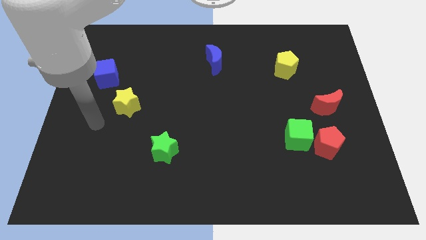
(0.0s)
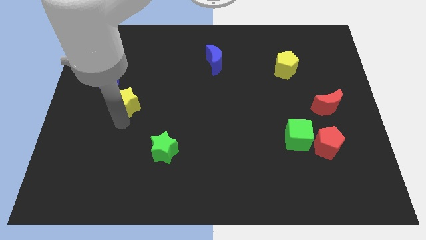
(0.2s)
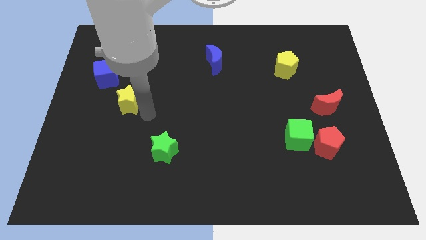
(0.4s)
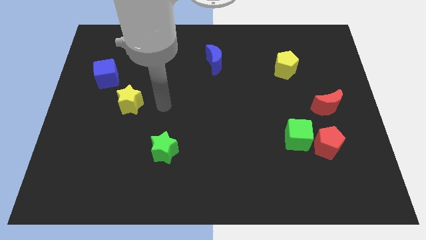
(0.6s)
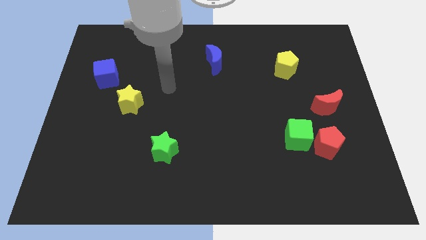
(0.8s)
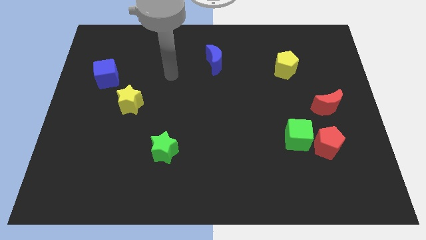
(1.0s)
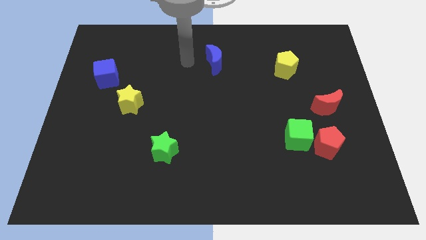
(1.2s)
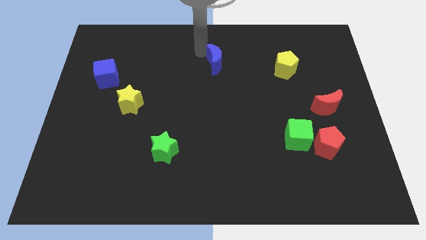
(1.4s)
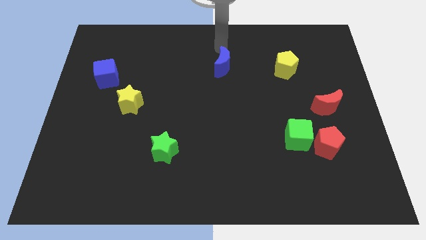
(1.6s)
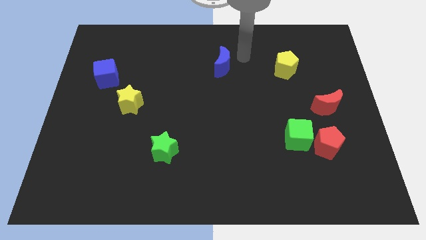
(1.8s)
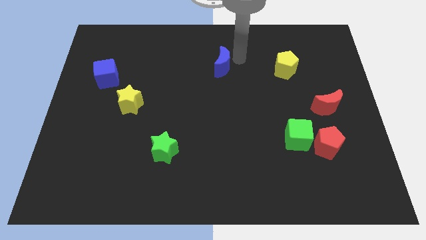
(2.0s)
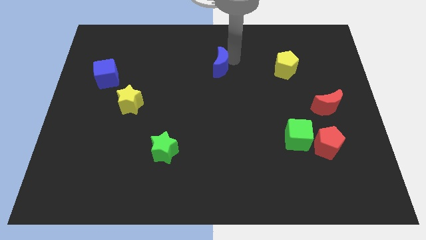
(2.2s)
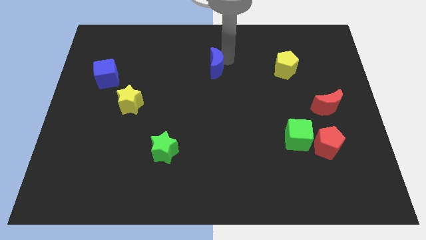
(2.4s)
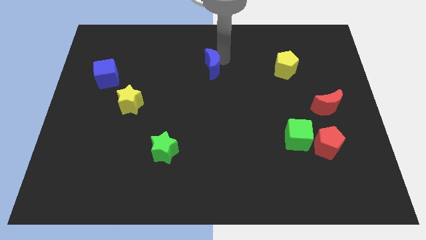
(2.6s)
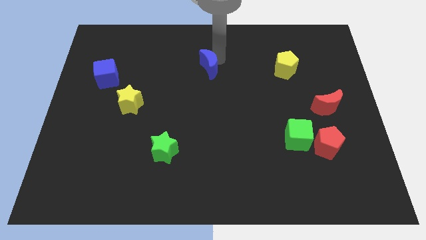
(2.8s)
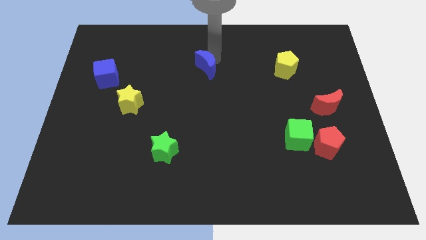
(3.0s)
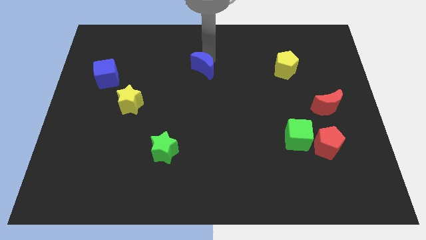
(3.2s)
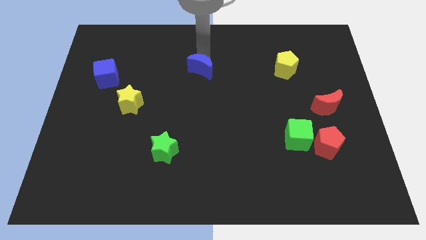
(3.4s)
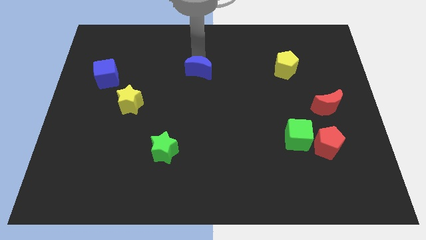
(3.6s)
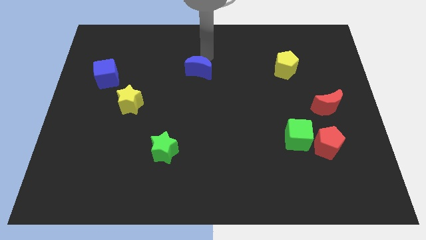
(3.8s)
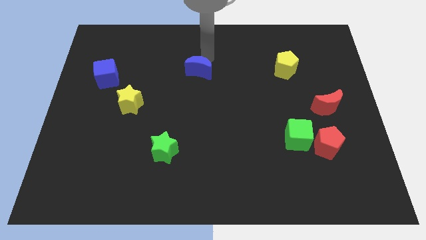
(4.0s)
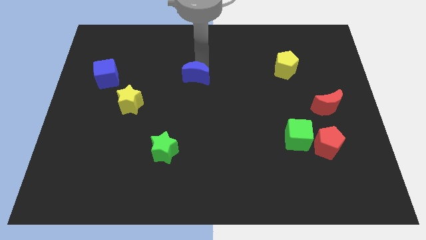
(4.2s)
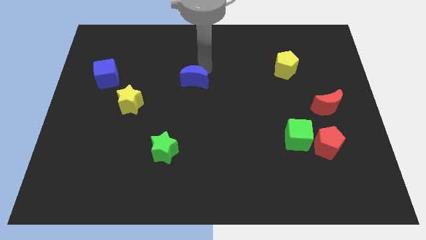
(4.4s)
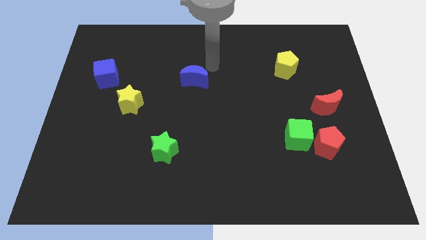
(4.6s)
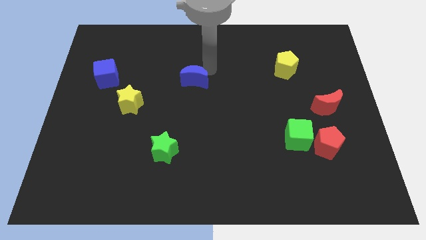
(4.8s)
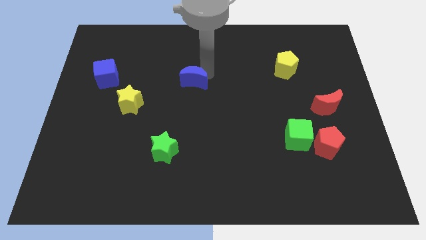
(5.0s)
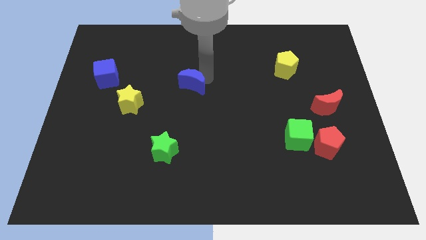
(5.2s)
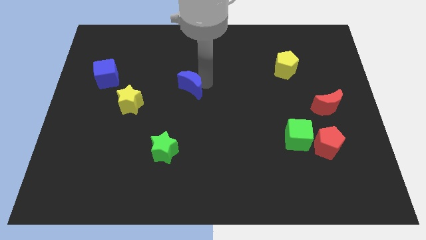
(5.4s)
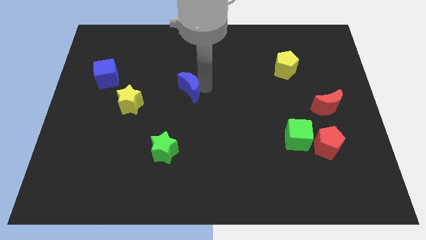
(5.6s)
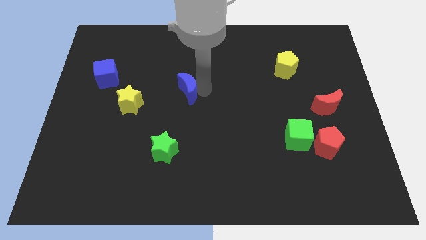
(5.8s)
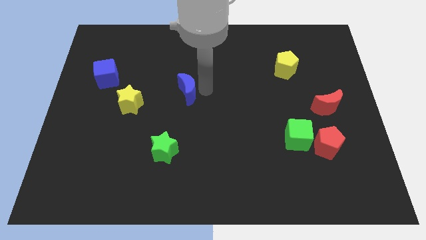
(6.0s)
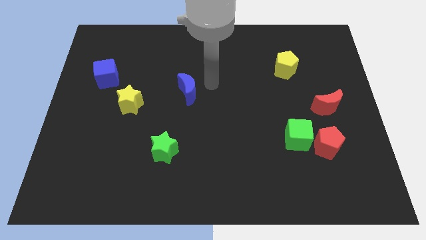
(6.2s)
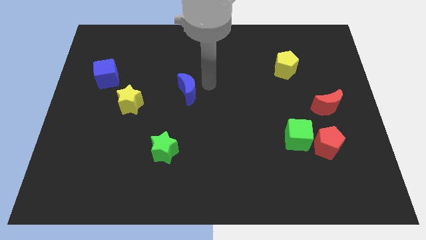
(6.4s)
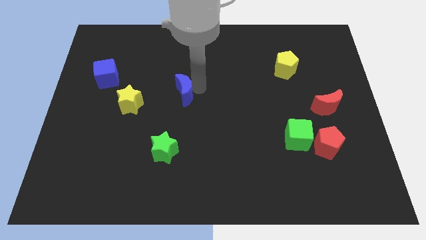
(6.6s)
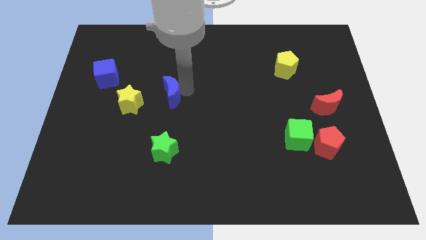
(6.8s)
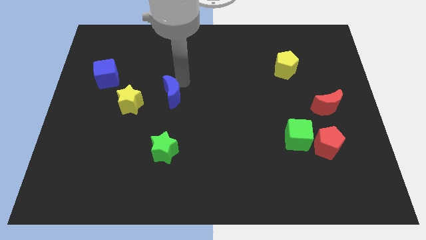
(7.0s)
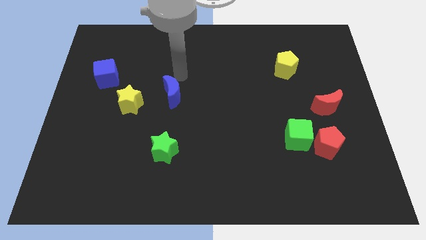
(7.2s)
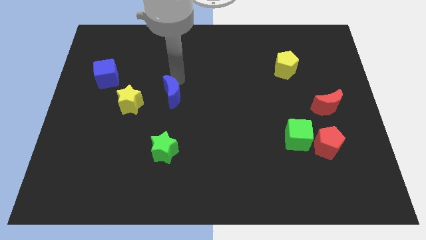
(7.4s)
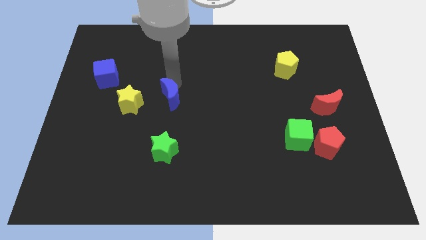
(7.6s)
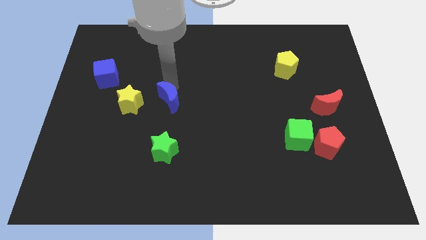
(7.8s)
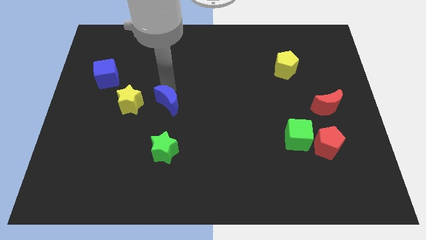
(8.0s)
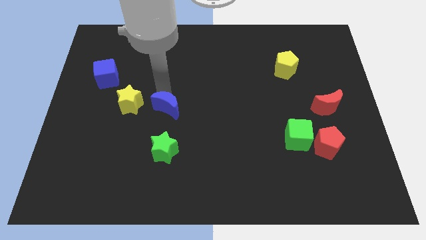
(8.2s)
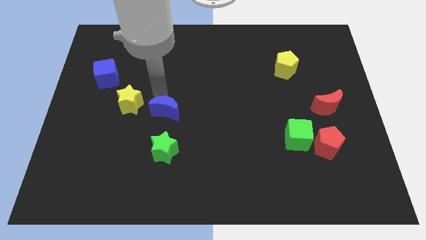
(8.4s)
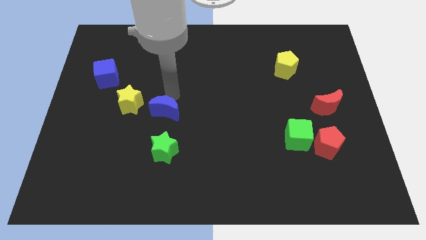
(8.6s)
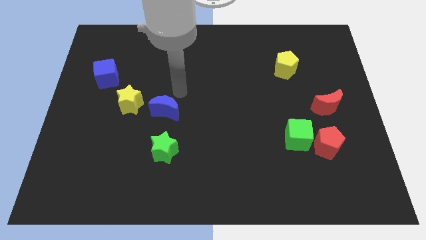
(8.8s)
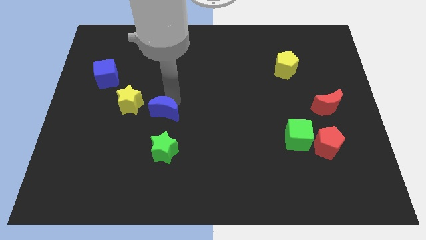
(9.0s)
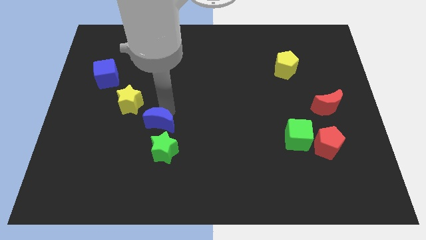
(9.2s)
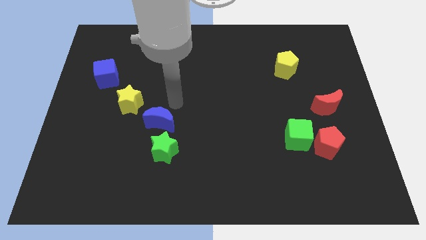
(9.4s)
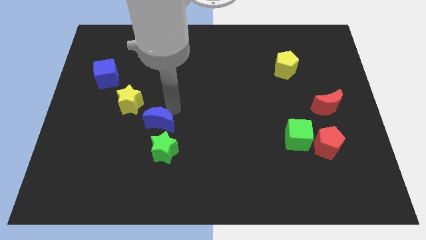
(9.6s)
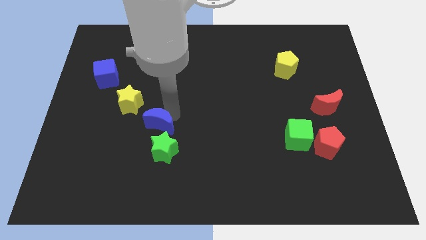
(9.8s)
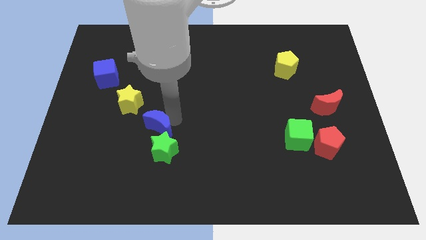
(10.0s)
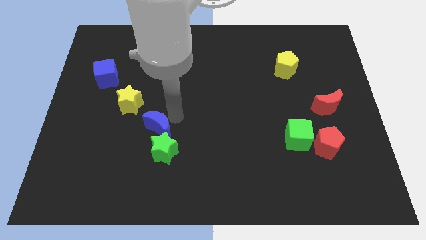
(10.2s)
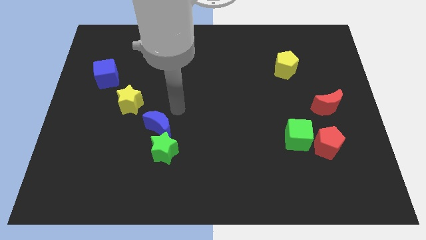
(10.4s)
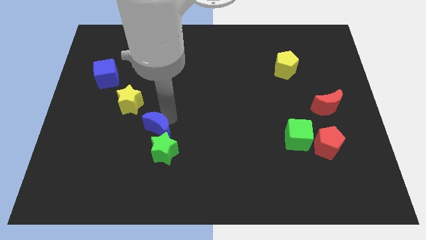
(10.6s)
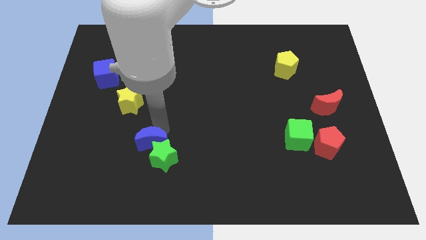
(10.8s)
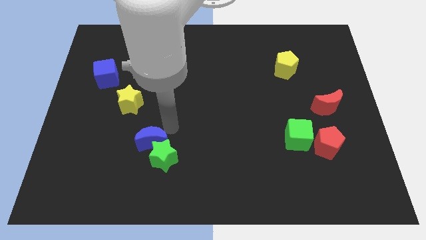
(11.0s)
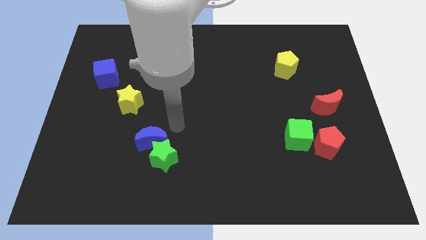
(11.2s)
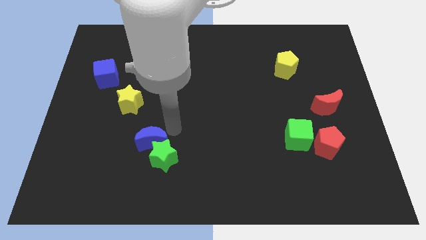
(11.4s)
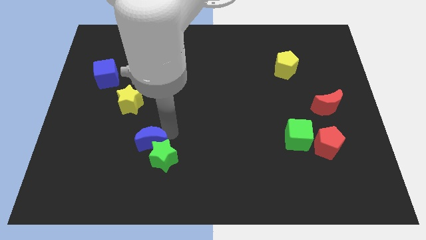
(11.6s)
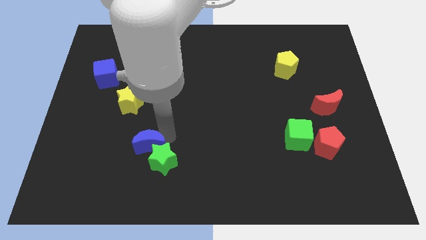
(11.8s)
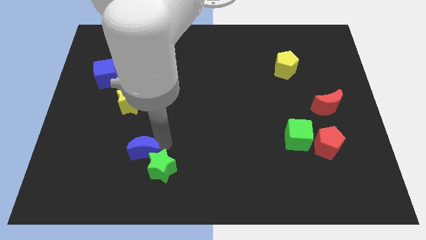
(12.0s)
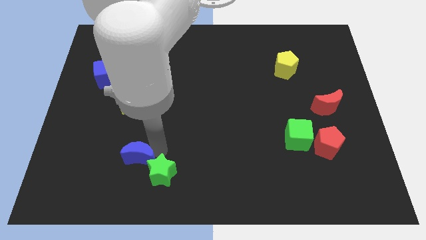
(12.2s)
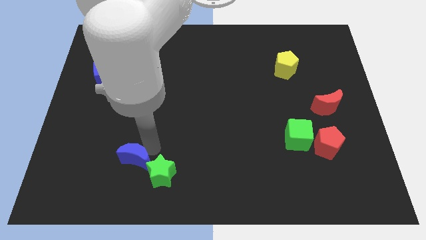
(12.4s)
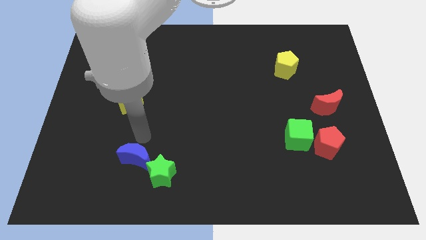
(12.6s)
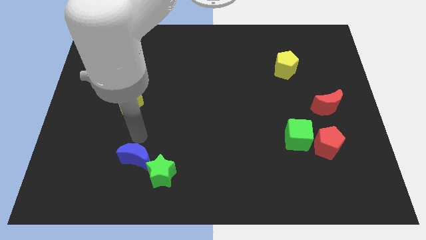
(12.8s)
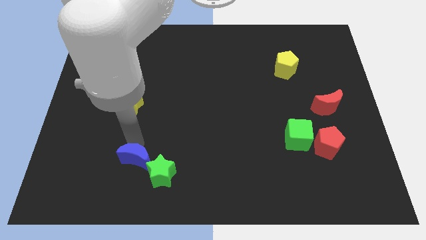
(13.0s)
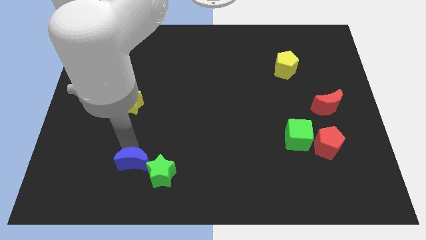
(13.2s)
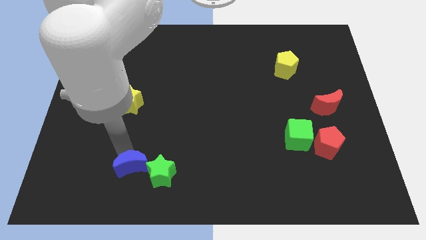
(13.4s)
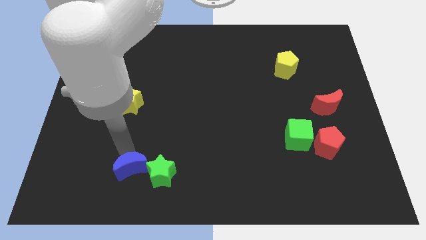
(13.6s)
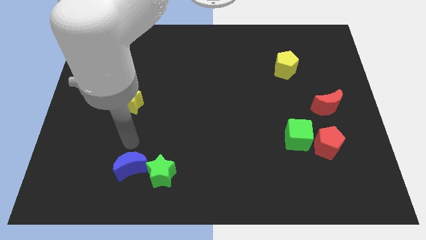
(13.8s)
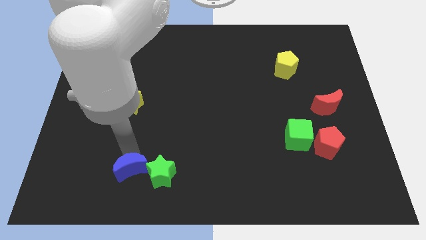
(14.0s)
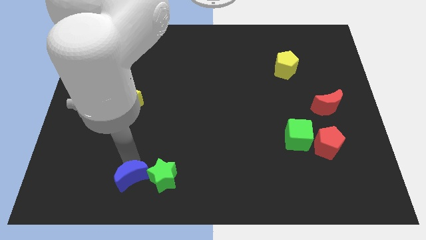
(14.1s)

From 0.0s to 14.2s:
push the blue moon to the bottom left of the green star

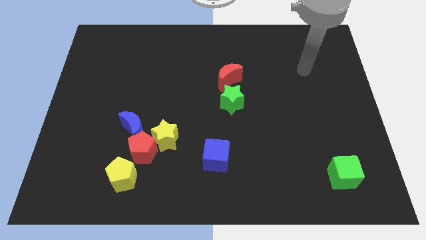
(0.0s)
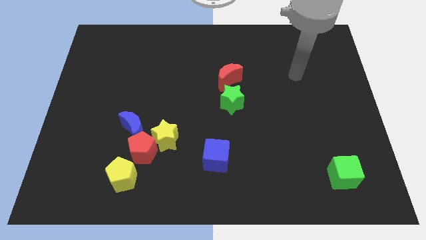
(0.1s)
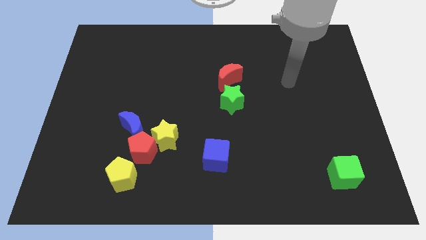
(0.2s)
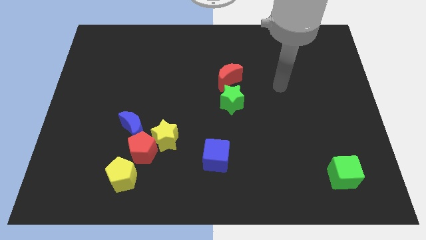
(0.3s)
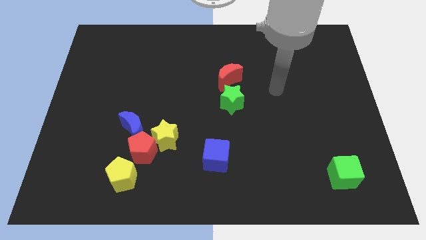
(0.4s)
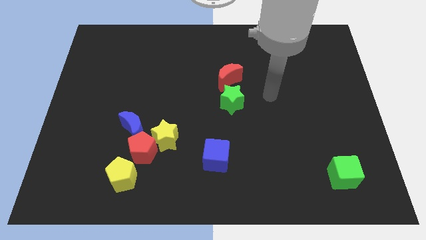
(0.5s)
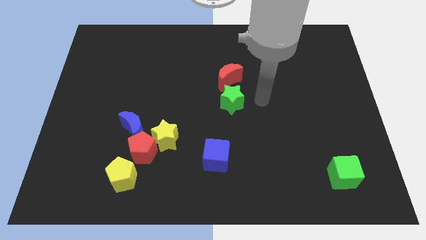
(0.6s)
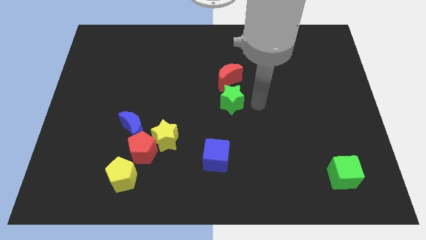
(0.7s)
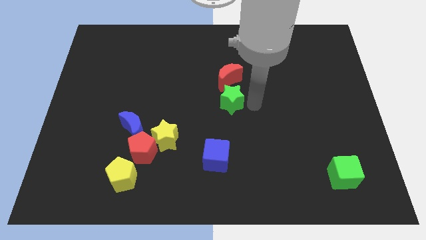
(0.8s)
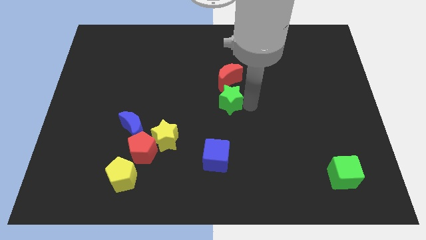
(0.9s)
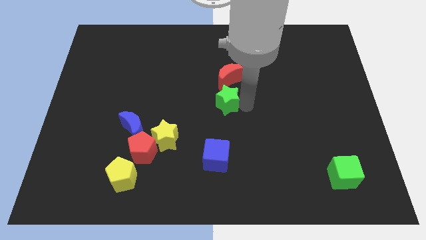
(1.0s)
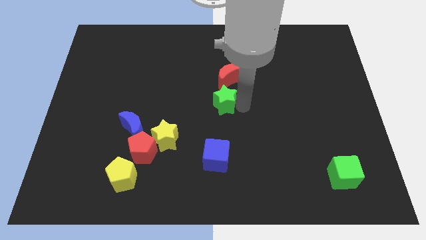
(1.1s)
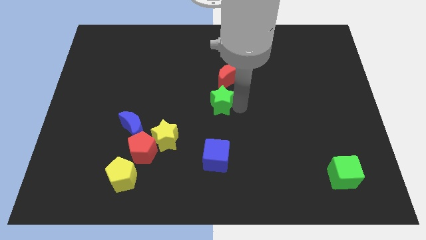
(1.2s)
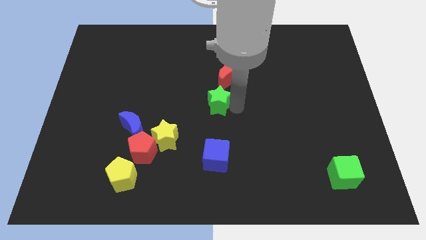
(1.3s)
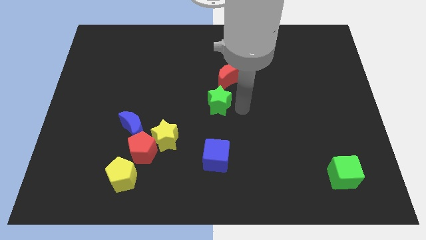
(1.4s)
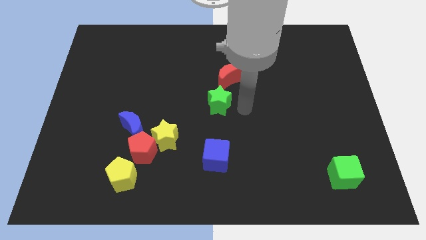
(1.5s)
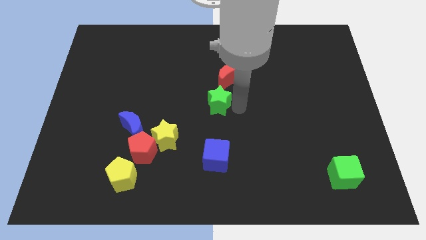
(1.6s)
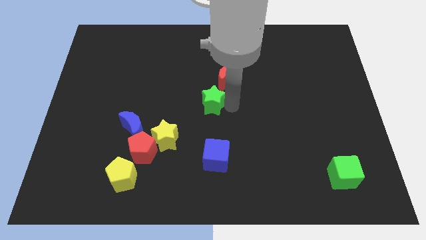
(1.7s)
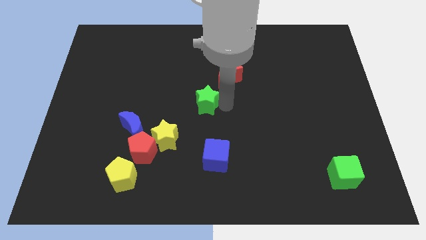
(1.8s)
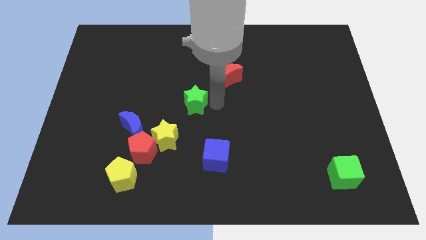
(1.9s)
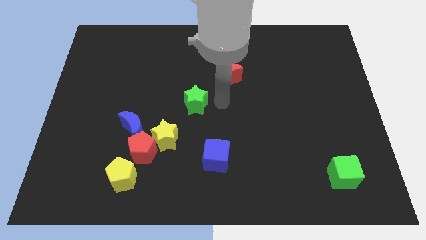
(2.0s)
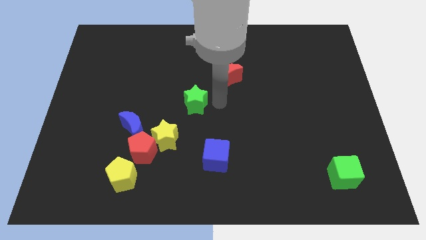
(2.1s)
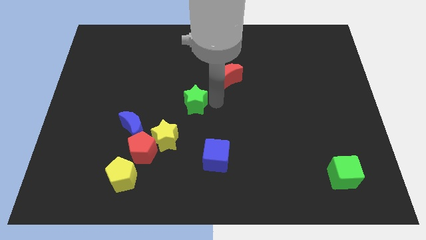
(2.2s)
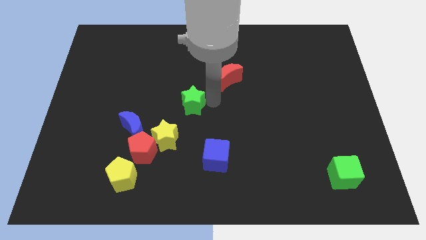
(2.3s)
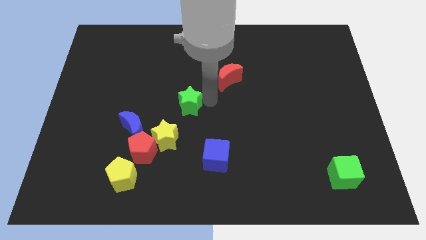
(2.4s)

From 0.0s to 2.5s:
put the green star above the yellow star
